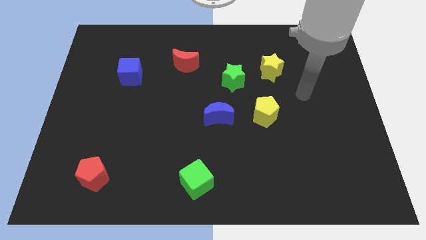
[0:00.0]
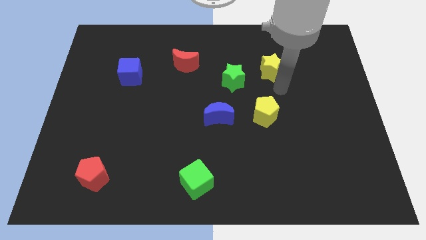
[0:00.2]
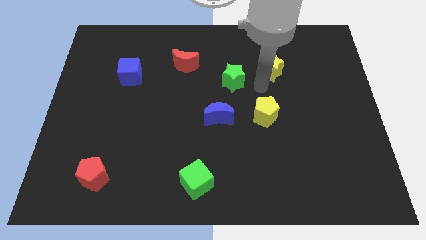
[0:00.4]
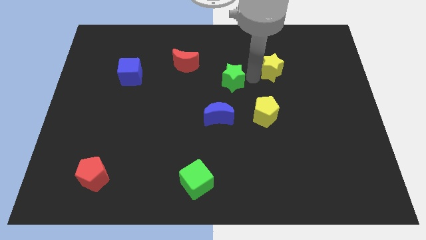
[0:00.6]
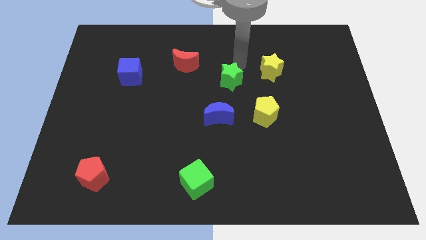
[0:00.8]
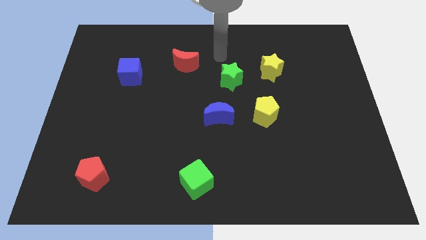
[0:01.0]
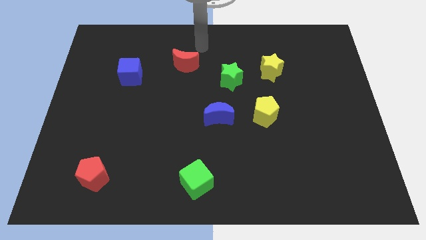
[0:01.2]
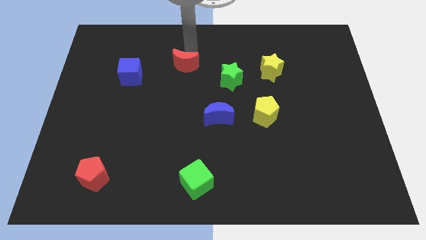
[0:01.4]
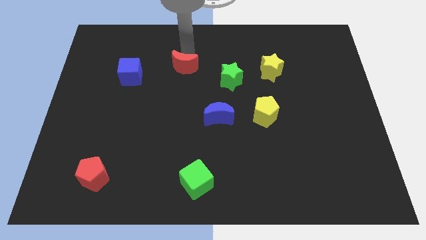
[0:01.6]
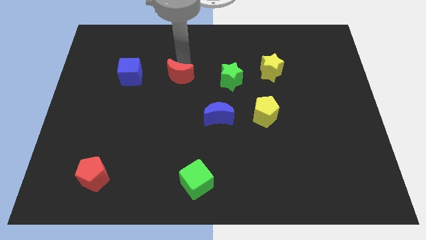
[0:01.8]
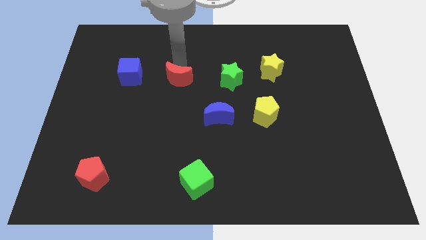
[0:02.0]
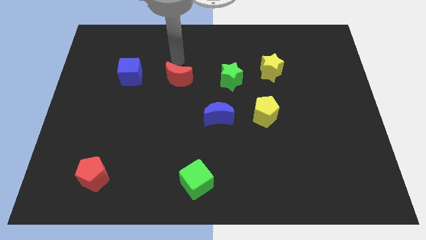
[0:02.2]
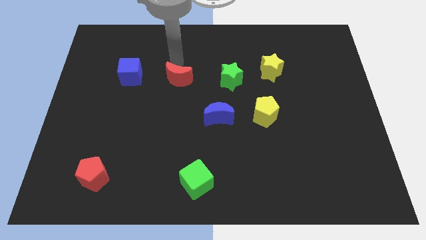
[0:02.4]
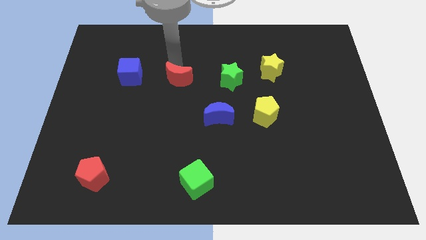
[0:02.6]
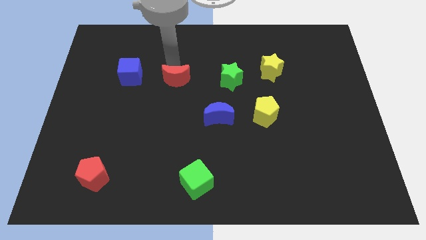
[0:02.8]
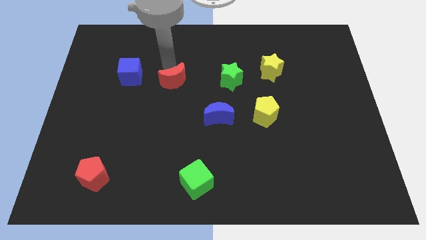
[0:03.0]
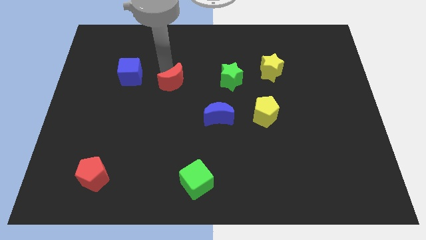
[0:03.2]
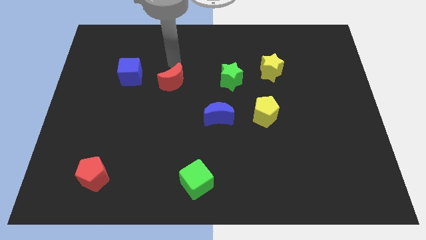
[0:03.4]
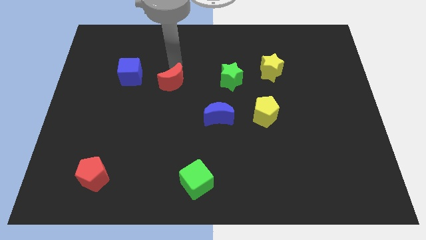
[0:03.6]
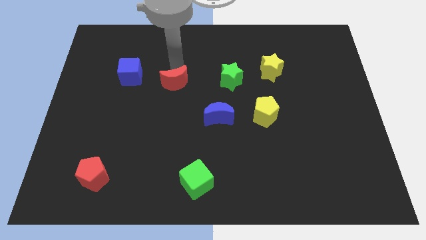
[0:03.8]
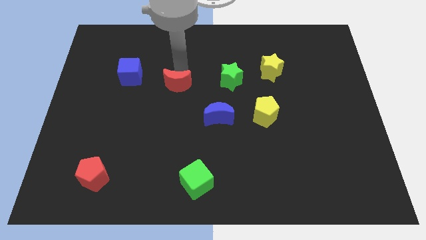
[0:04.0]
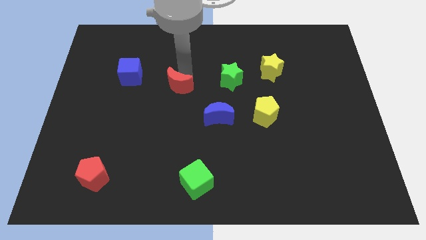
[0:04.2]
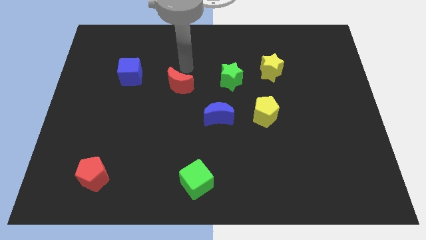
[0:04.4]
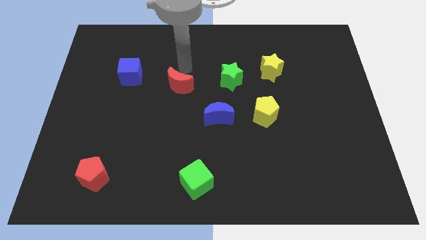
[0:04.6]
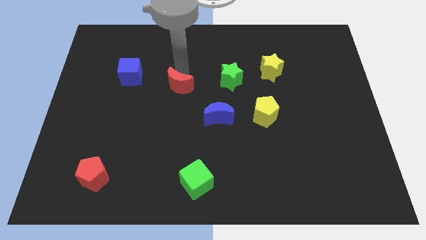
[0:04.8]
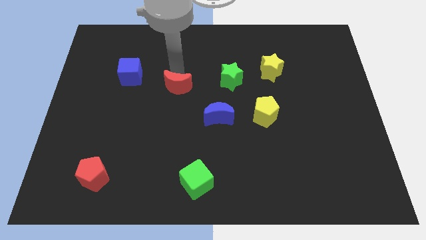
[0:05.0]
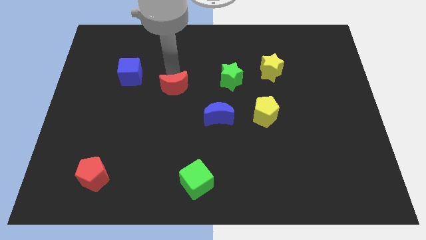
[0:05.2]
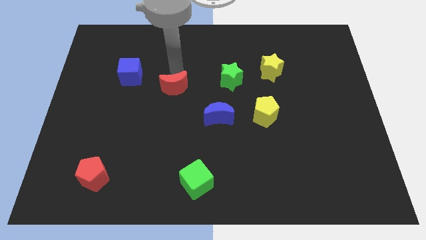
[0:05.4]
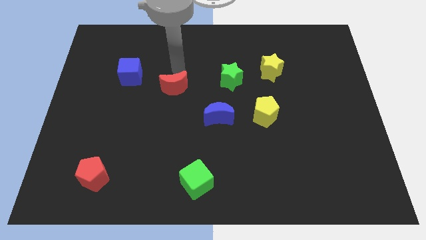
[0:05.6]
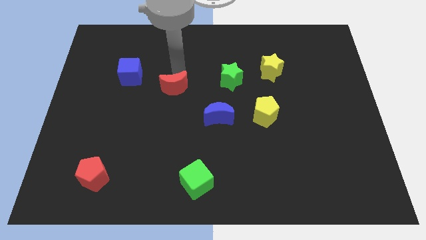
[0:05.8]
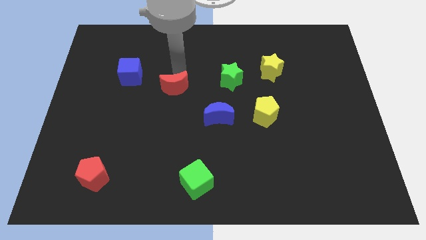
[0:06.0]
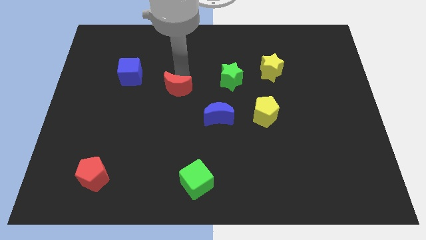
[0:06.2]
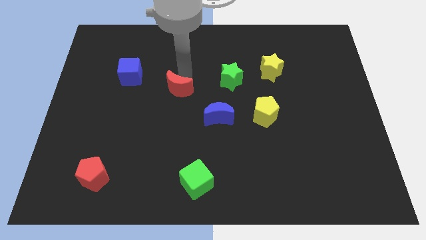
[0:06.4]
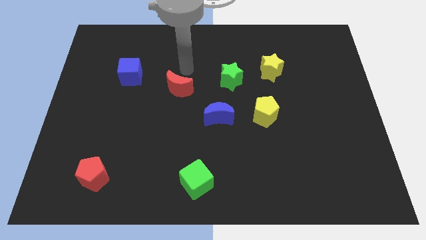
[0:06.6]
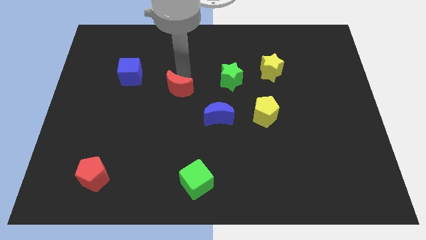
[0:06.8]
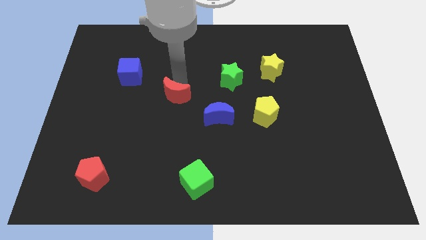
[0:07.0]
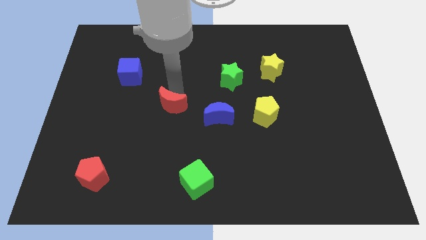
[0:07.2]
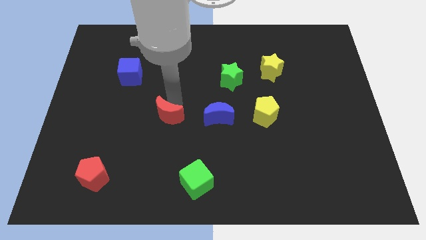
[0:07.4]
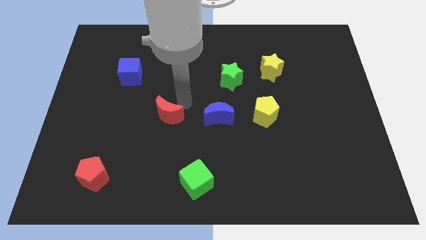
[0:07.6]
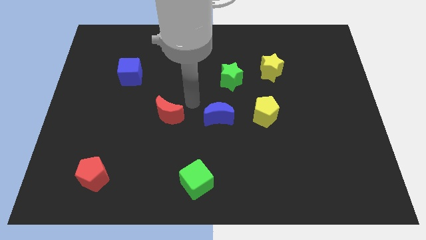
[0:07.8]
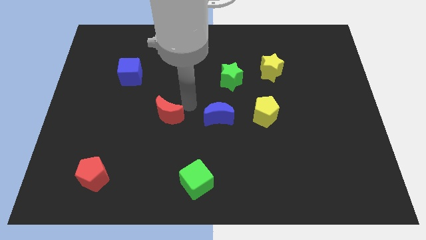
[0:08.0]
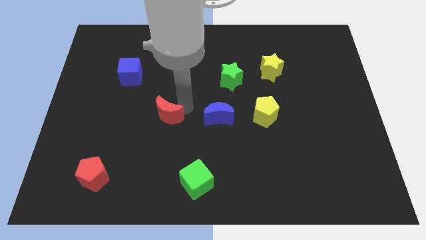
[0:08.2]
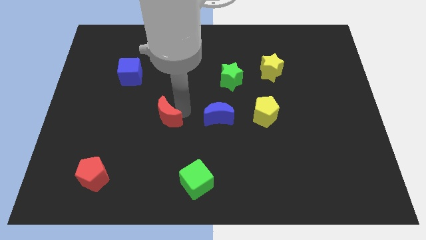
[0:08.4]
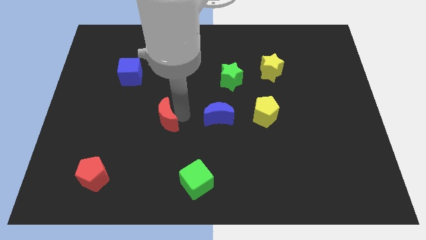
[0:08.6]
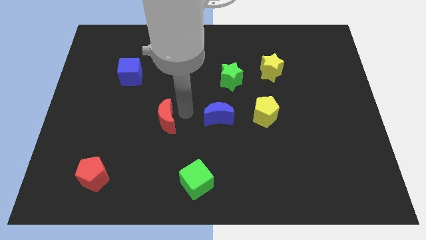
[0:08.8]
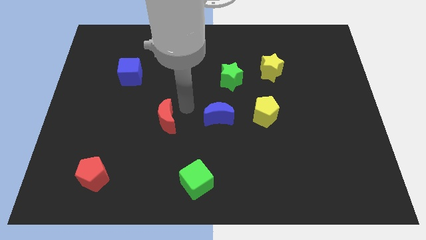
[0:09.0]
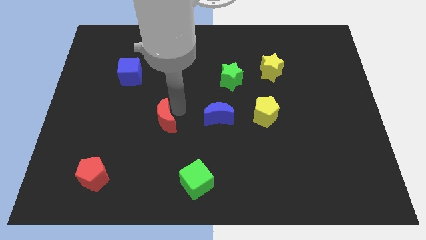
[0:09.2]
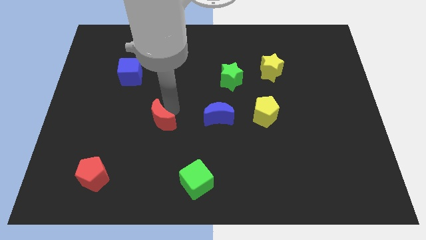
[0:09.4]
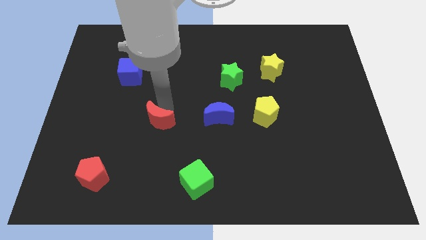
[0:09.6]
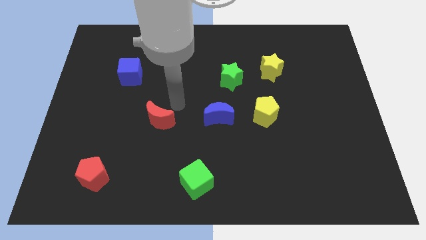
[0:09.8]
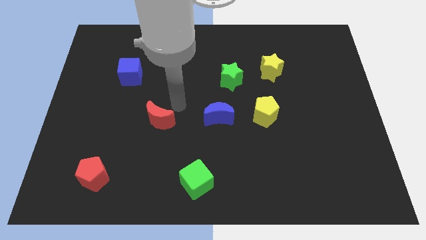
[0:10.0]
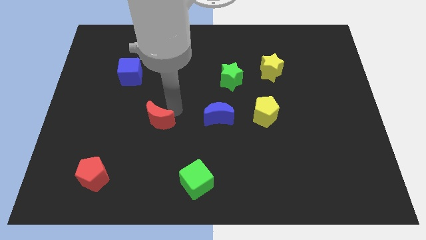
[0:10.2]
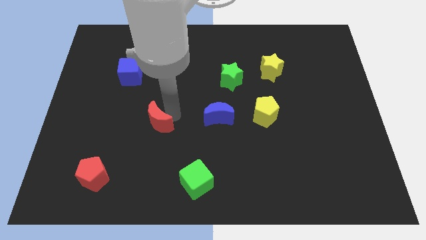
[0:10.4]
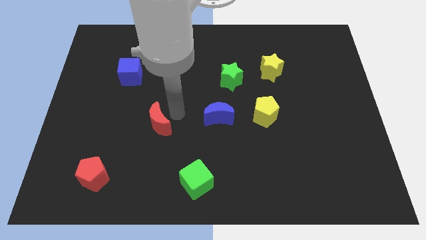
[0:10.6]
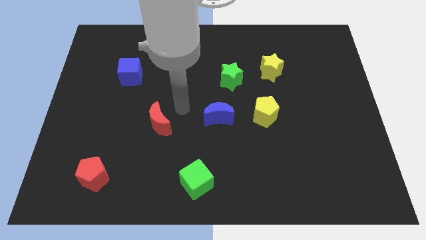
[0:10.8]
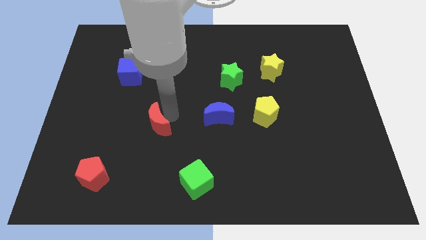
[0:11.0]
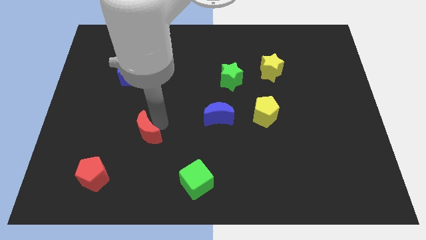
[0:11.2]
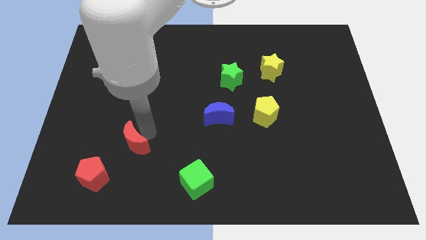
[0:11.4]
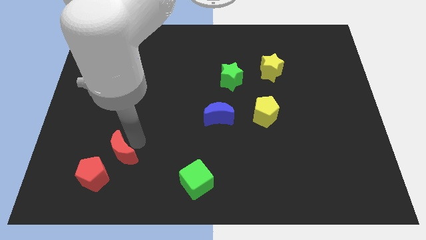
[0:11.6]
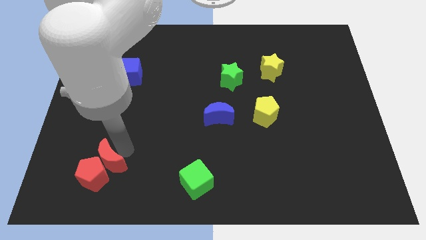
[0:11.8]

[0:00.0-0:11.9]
slide the red moon close to the red pentagon

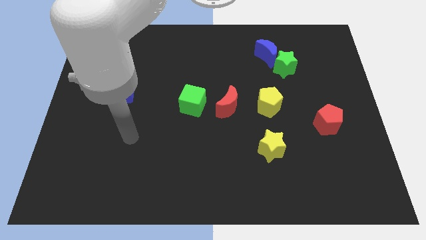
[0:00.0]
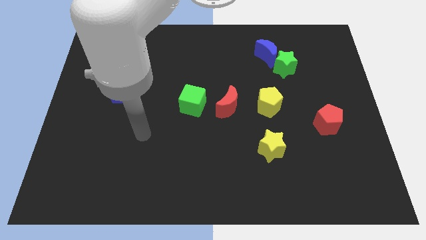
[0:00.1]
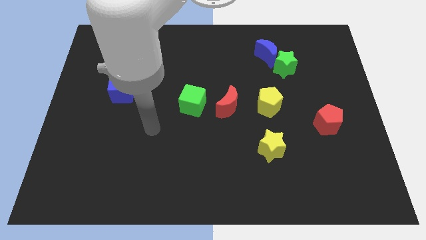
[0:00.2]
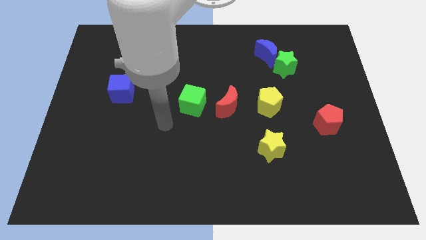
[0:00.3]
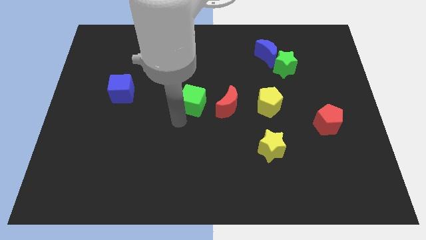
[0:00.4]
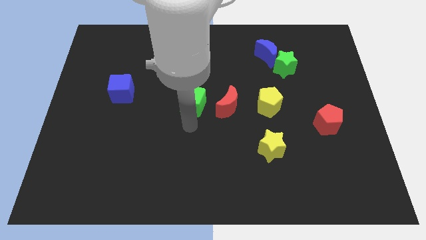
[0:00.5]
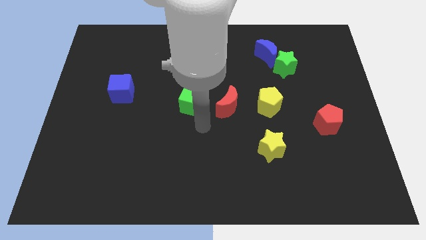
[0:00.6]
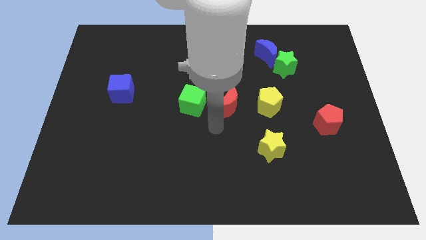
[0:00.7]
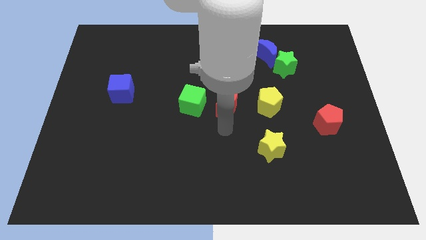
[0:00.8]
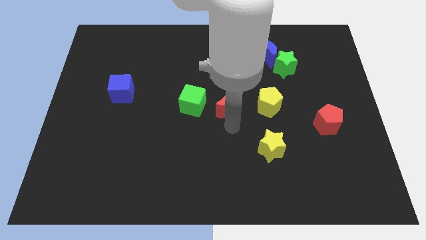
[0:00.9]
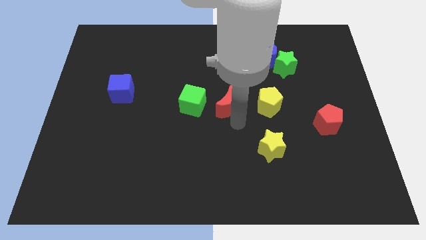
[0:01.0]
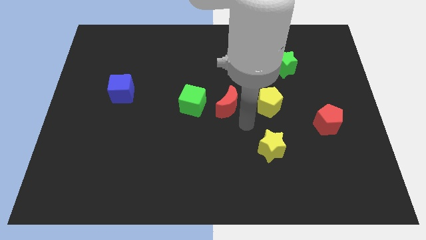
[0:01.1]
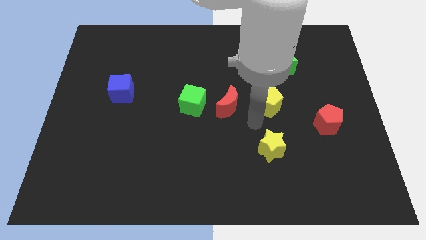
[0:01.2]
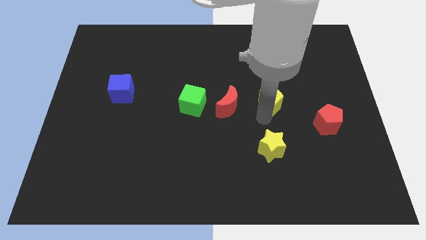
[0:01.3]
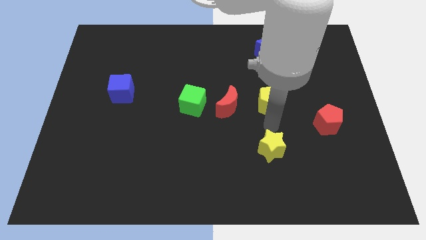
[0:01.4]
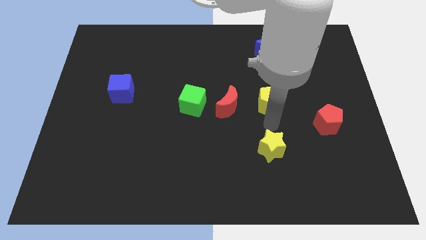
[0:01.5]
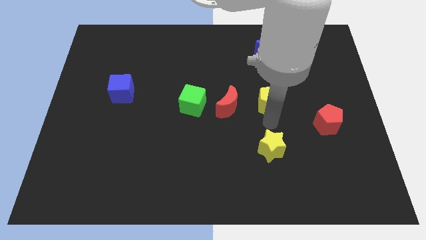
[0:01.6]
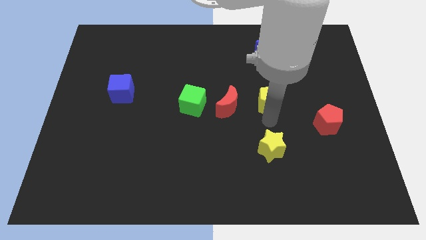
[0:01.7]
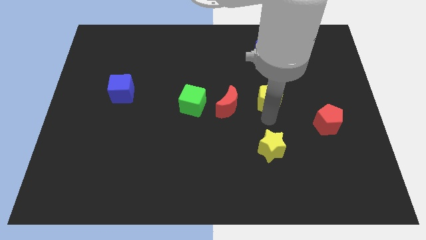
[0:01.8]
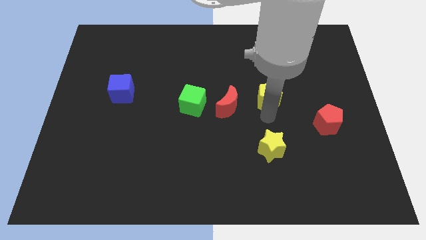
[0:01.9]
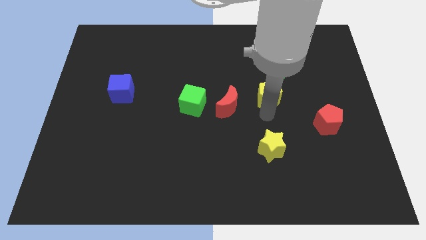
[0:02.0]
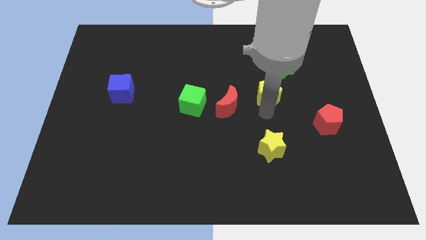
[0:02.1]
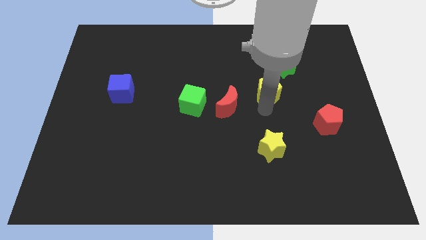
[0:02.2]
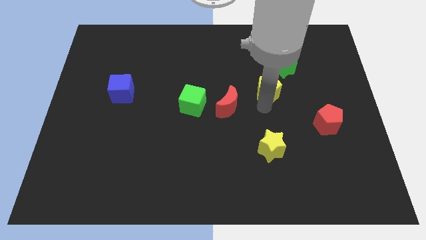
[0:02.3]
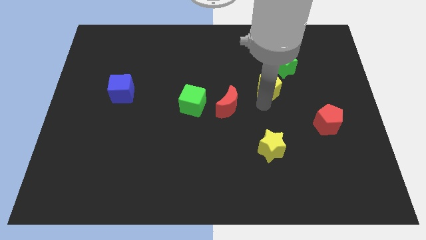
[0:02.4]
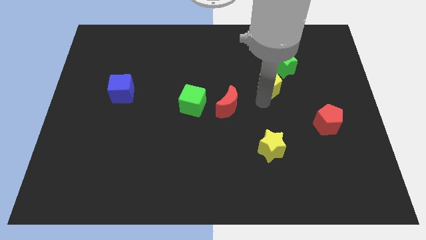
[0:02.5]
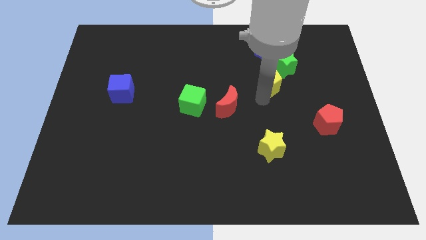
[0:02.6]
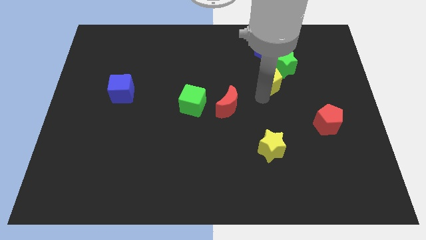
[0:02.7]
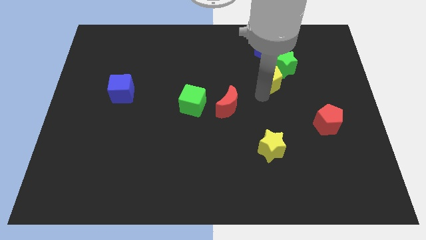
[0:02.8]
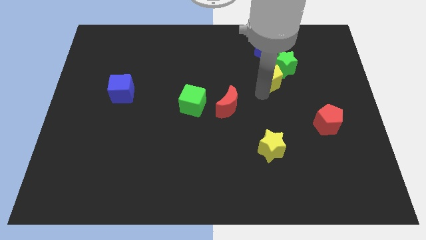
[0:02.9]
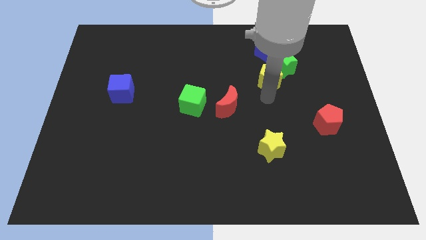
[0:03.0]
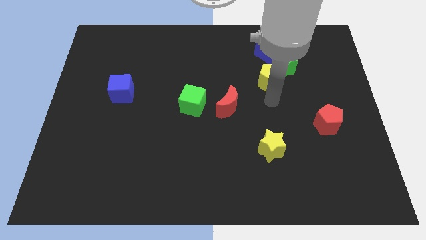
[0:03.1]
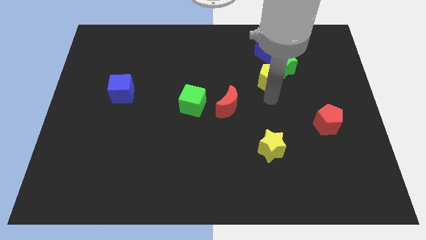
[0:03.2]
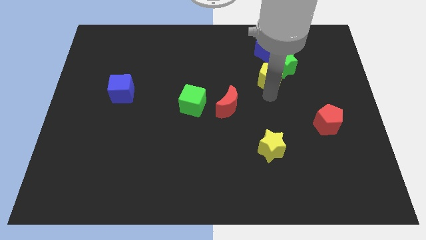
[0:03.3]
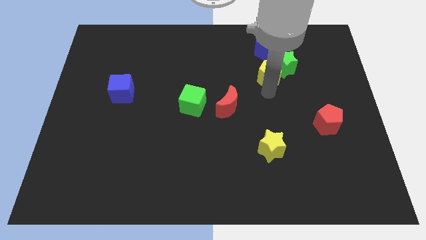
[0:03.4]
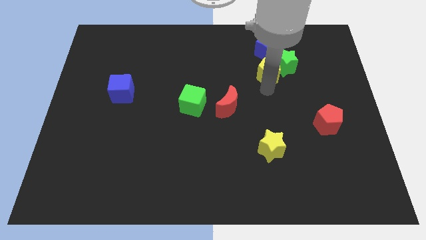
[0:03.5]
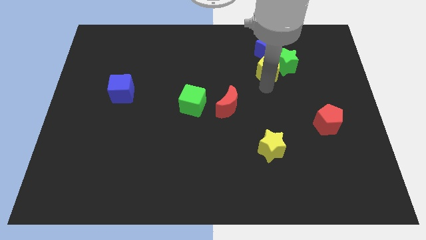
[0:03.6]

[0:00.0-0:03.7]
move the yellow pentagon next to the blue moon
